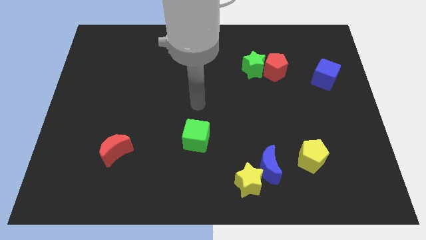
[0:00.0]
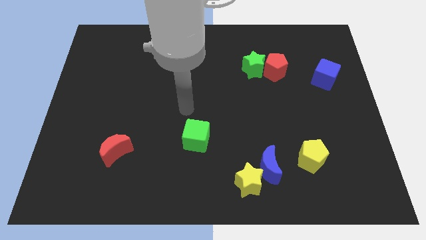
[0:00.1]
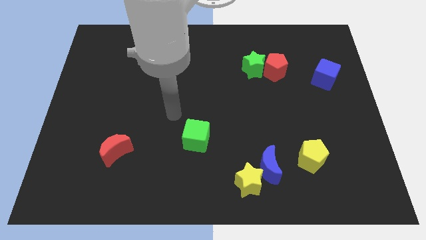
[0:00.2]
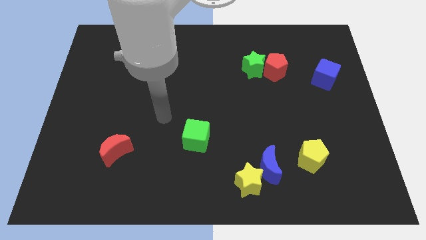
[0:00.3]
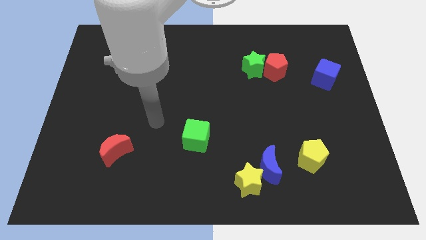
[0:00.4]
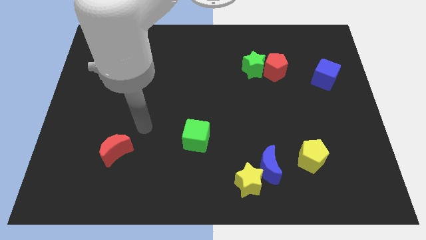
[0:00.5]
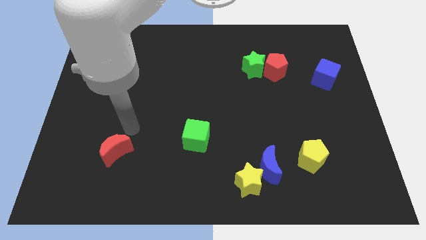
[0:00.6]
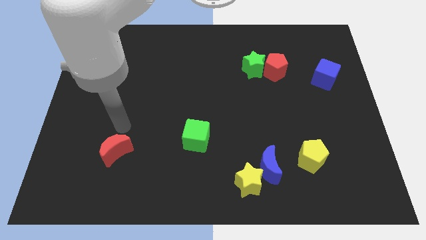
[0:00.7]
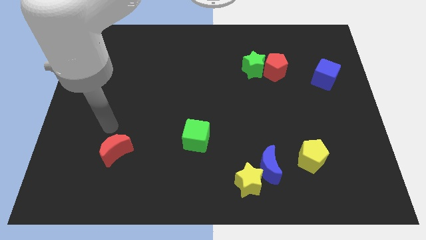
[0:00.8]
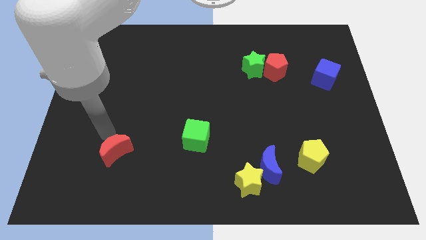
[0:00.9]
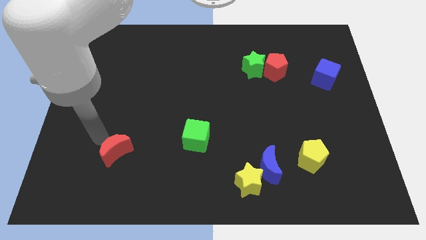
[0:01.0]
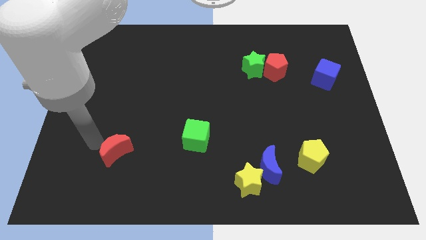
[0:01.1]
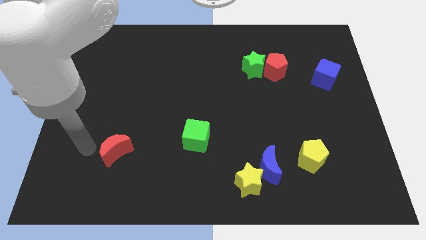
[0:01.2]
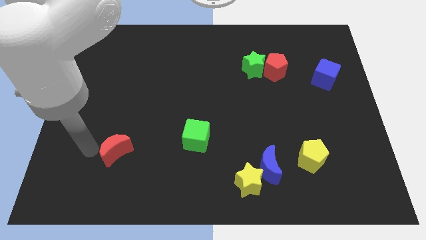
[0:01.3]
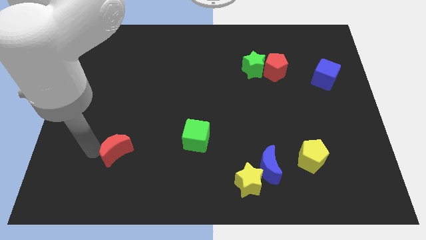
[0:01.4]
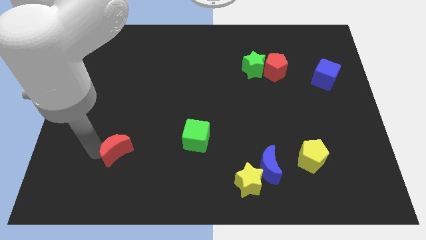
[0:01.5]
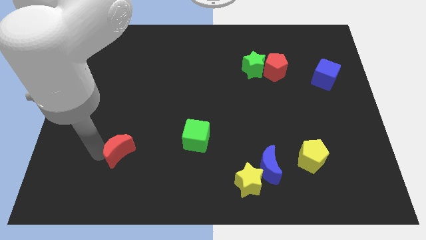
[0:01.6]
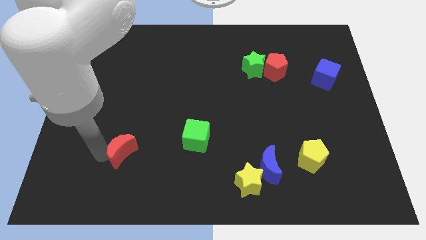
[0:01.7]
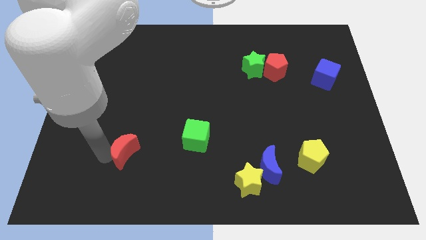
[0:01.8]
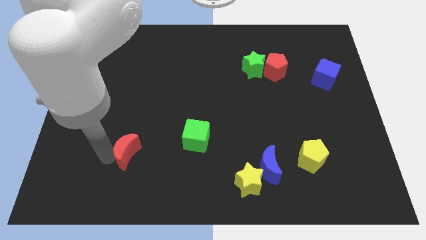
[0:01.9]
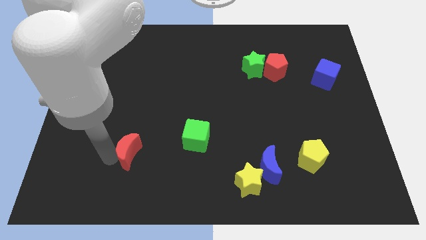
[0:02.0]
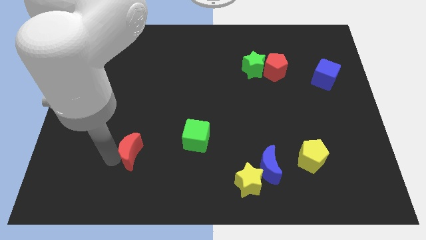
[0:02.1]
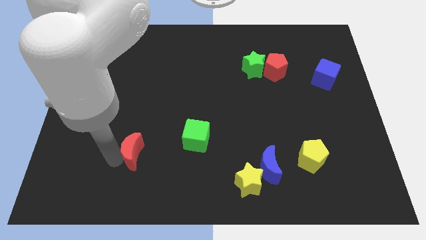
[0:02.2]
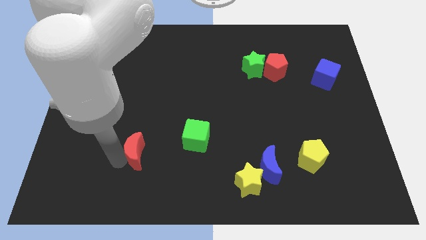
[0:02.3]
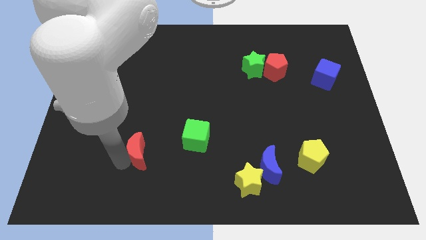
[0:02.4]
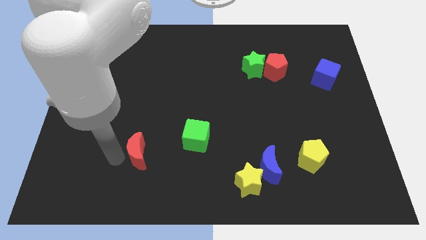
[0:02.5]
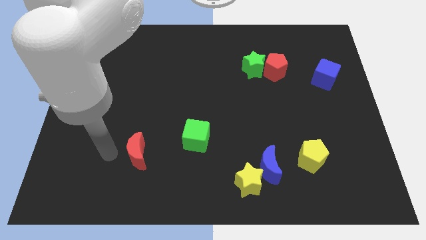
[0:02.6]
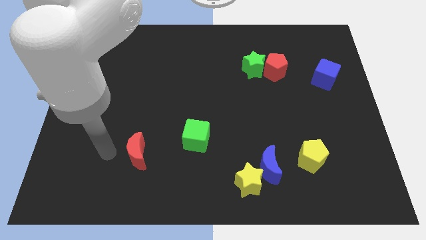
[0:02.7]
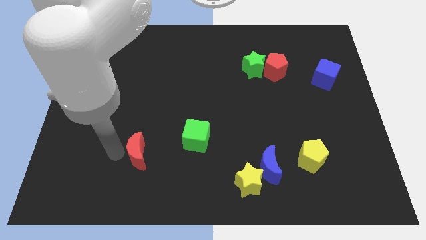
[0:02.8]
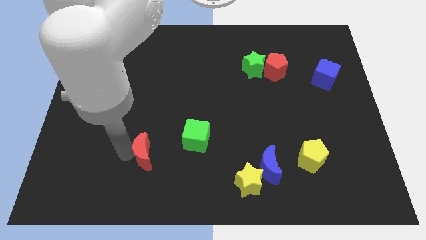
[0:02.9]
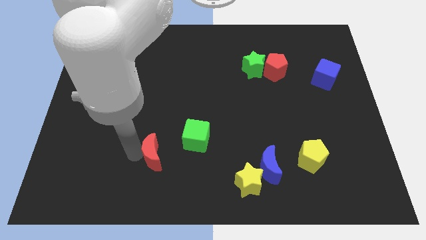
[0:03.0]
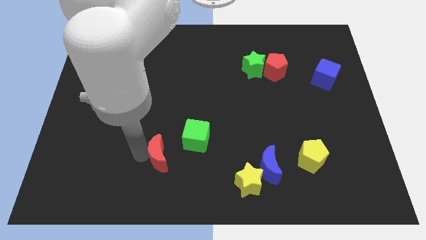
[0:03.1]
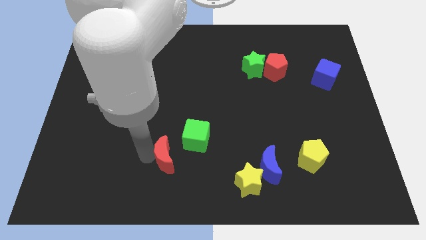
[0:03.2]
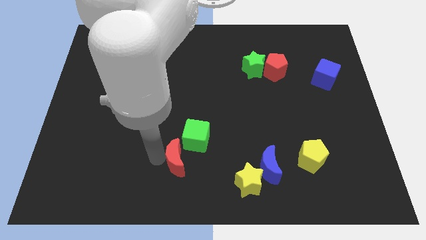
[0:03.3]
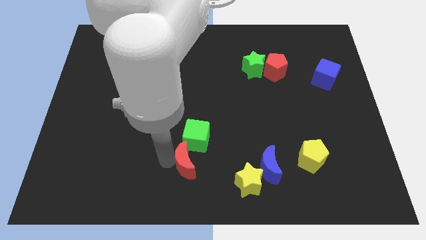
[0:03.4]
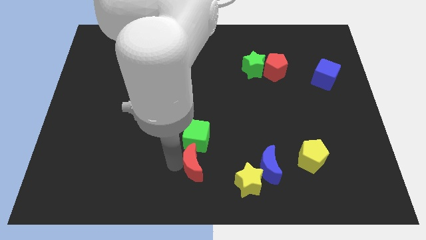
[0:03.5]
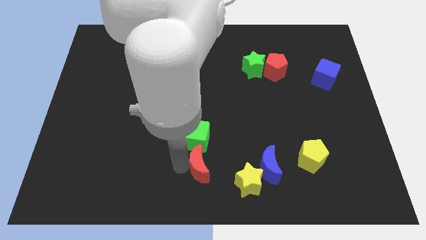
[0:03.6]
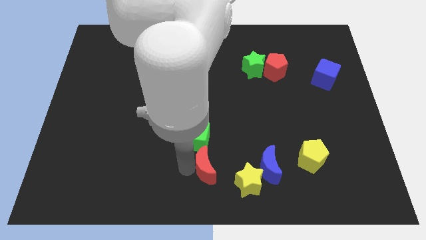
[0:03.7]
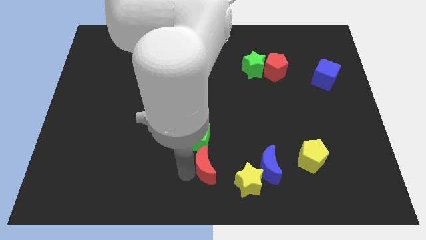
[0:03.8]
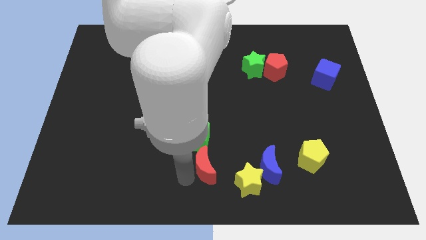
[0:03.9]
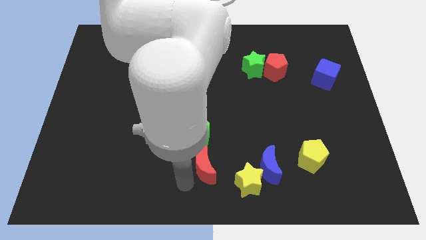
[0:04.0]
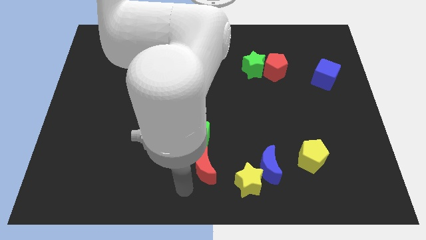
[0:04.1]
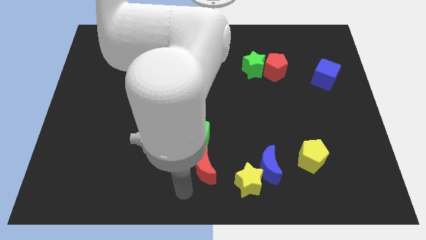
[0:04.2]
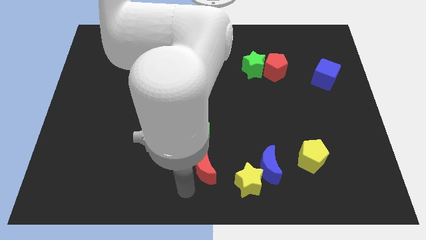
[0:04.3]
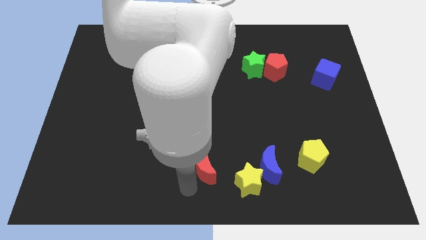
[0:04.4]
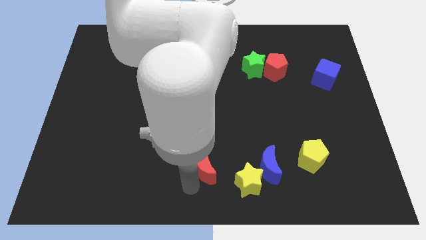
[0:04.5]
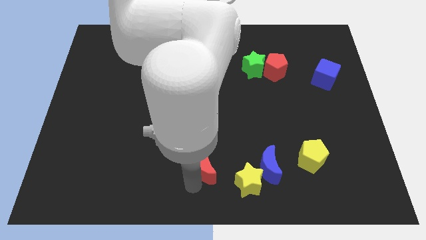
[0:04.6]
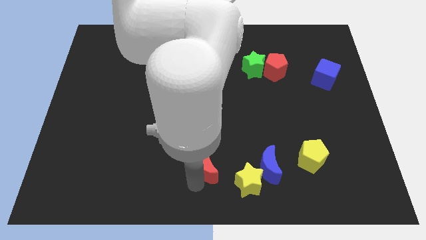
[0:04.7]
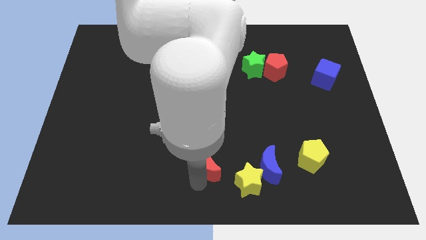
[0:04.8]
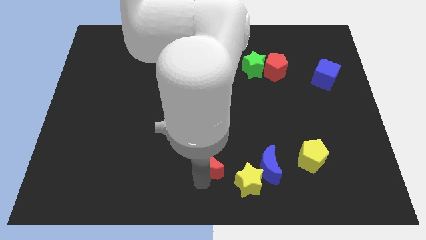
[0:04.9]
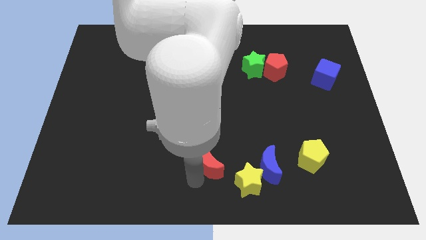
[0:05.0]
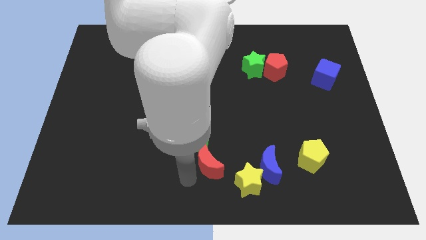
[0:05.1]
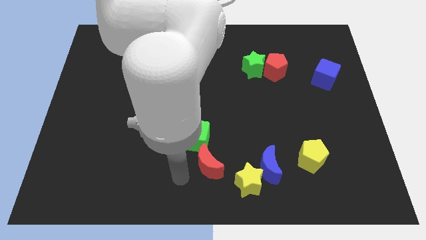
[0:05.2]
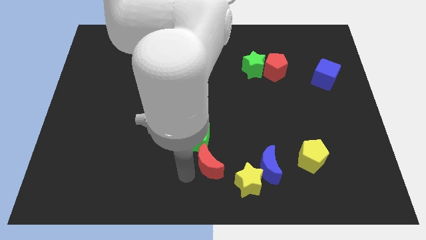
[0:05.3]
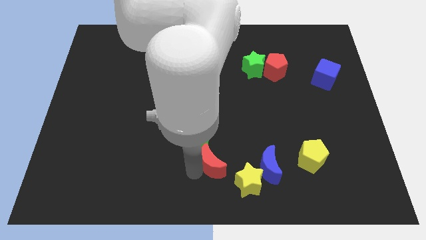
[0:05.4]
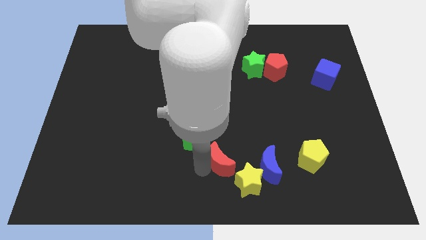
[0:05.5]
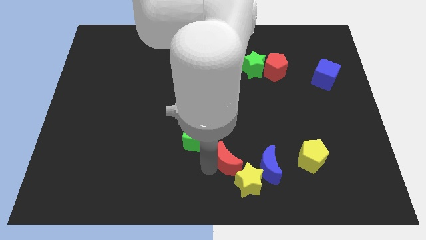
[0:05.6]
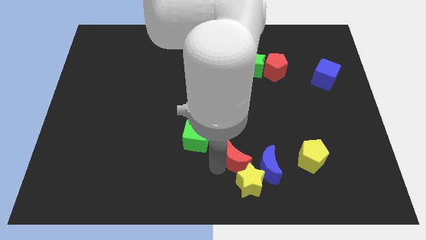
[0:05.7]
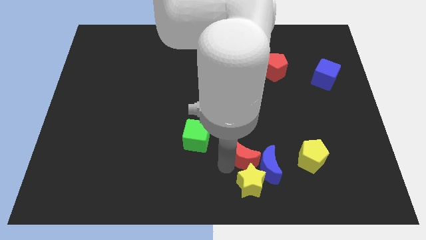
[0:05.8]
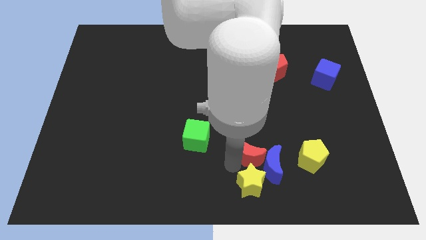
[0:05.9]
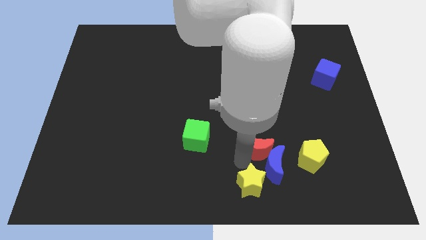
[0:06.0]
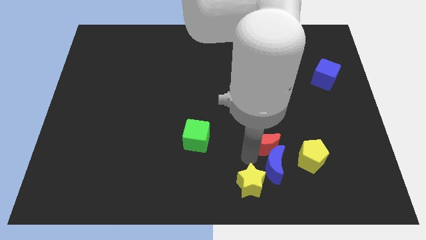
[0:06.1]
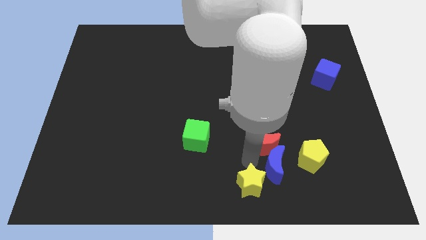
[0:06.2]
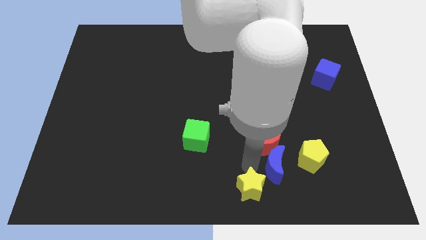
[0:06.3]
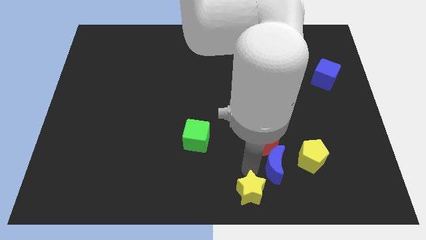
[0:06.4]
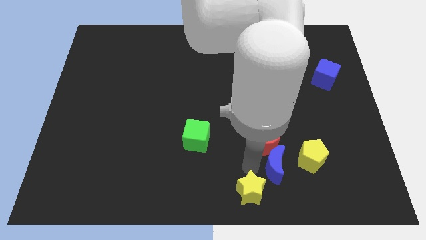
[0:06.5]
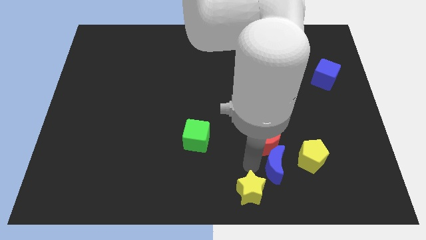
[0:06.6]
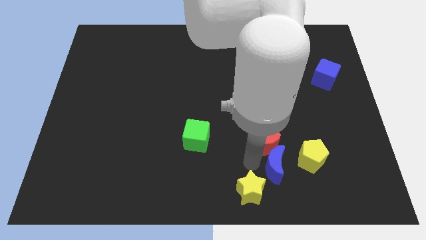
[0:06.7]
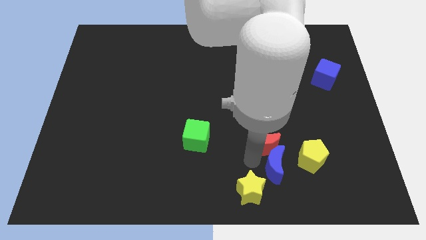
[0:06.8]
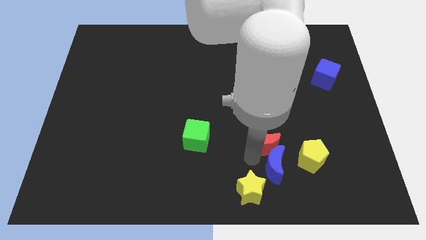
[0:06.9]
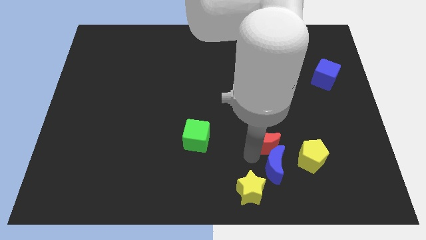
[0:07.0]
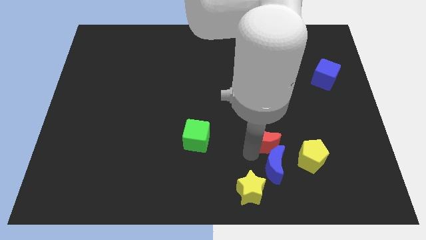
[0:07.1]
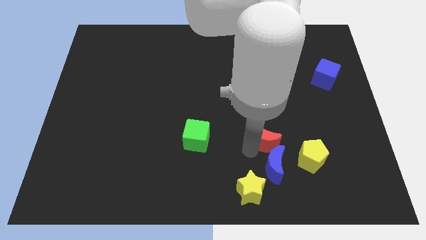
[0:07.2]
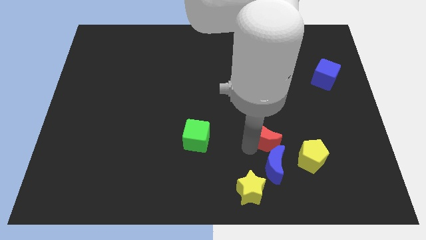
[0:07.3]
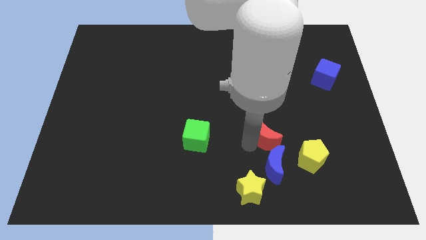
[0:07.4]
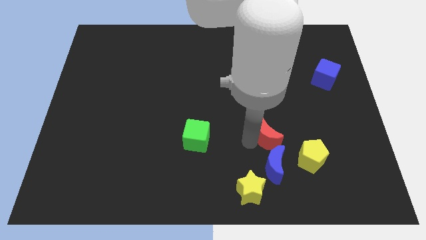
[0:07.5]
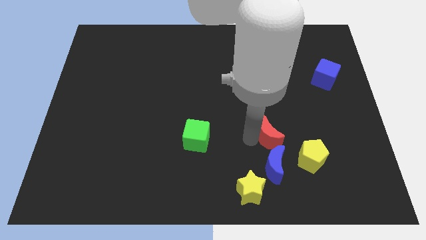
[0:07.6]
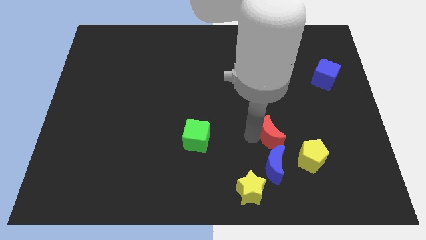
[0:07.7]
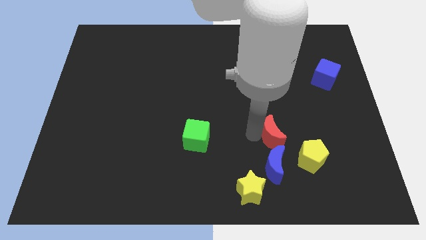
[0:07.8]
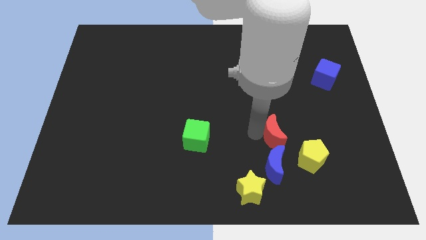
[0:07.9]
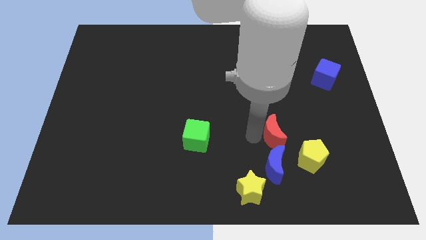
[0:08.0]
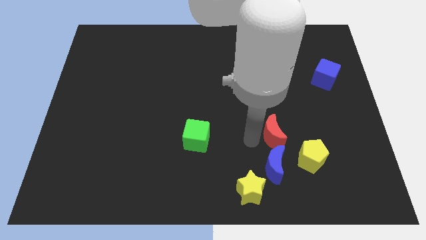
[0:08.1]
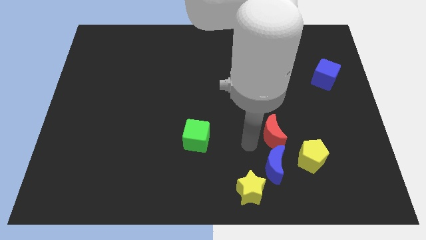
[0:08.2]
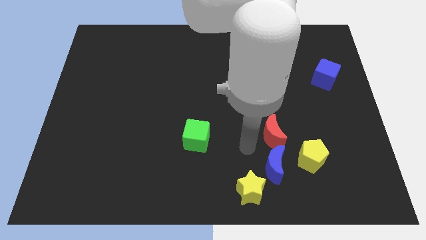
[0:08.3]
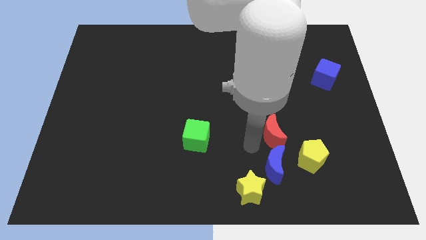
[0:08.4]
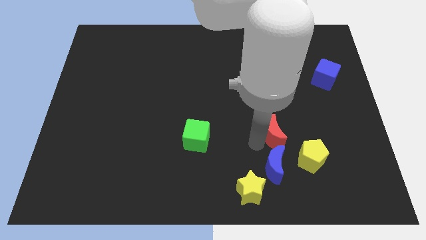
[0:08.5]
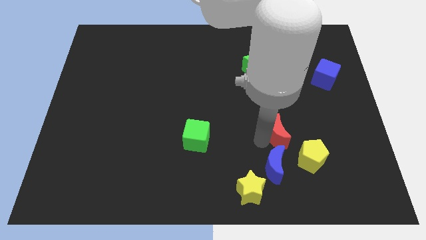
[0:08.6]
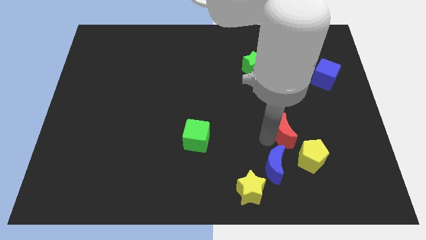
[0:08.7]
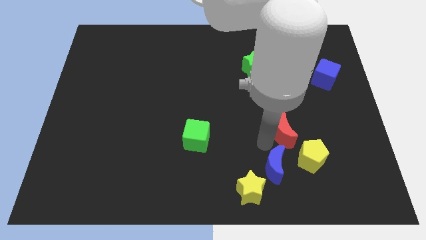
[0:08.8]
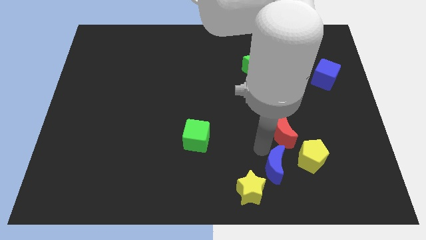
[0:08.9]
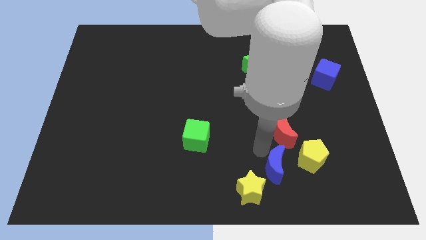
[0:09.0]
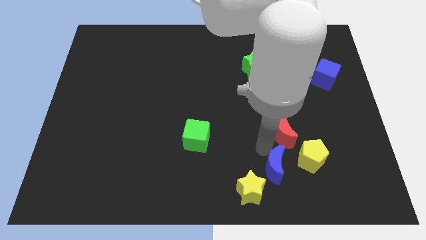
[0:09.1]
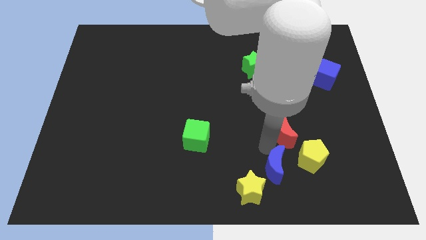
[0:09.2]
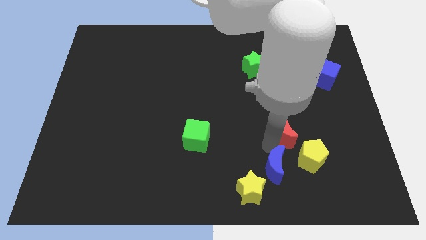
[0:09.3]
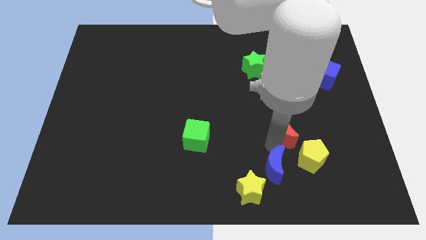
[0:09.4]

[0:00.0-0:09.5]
move the red moon to the top of the yellow pentagon
